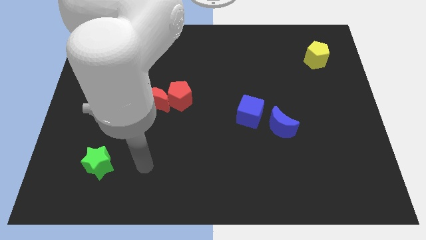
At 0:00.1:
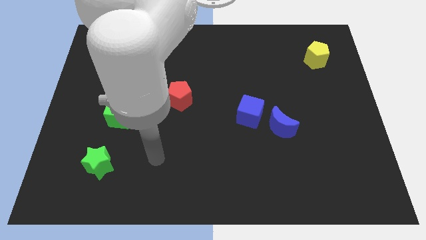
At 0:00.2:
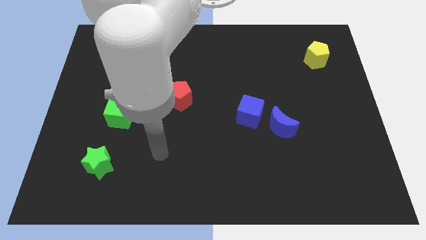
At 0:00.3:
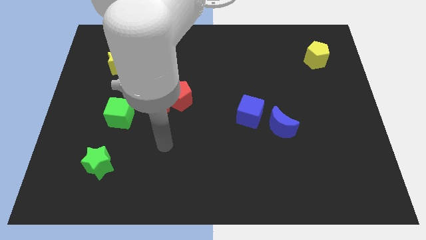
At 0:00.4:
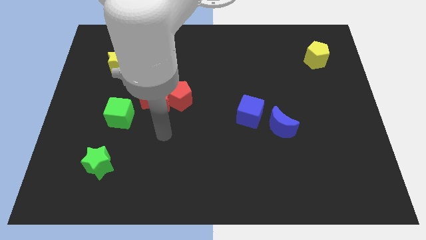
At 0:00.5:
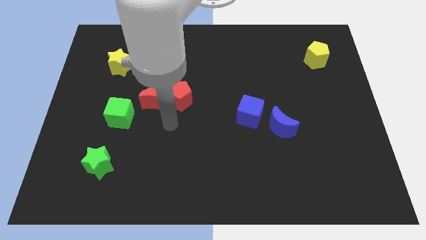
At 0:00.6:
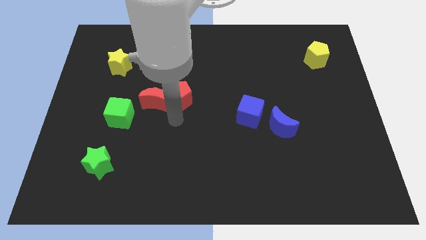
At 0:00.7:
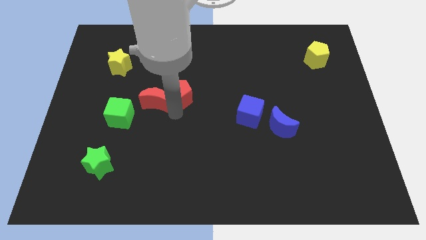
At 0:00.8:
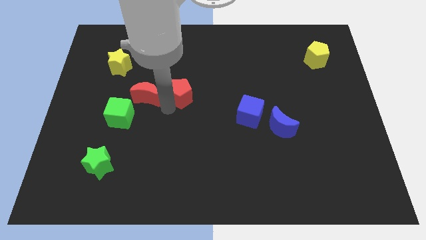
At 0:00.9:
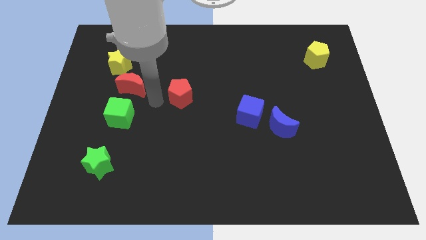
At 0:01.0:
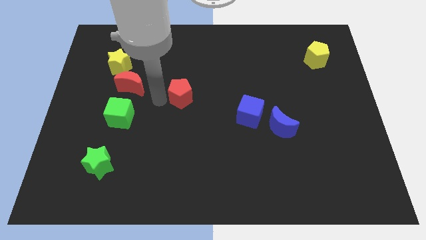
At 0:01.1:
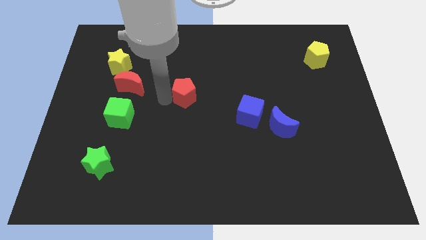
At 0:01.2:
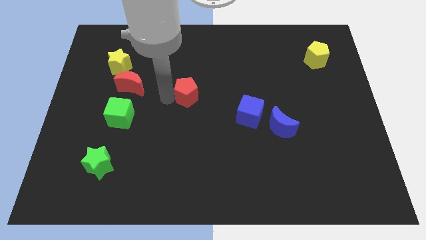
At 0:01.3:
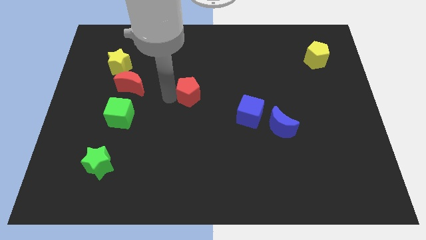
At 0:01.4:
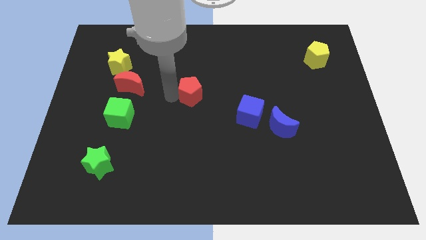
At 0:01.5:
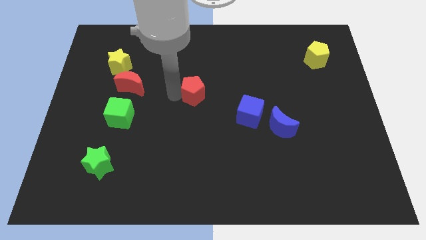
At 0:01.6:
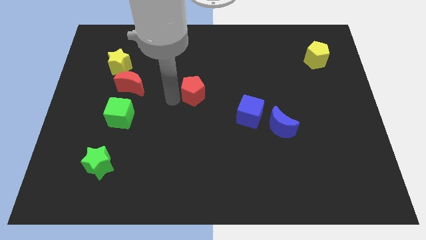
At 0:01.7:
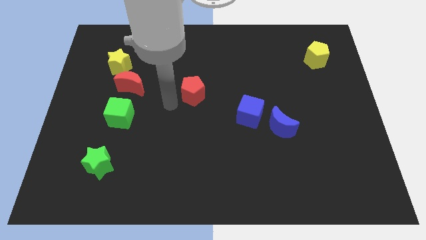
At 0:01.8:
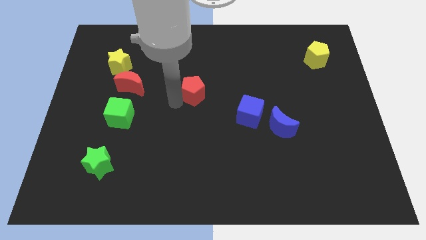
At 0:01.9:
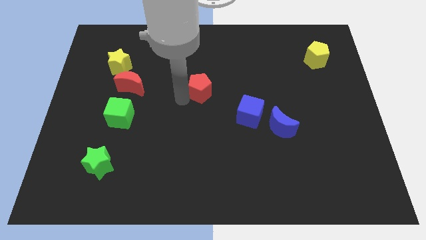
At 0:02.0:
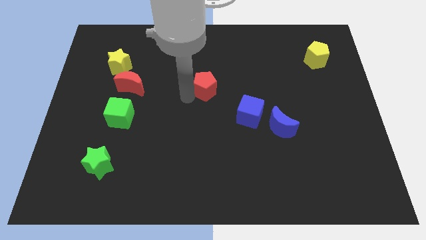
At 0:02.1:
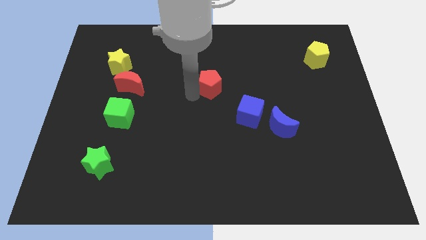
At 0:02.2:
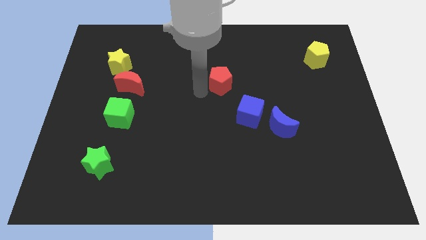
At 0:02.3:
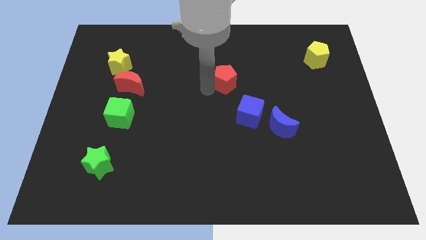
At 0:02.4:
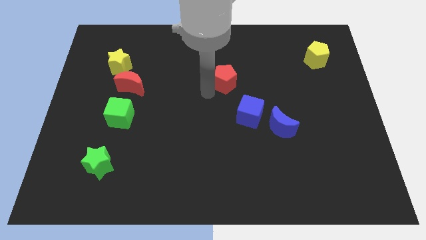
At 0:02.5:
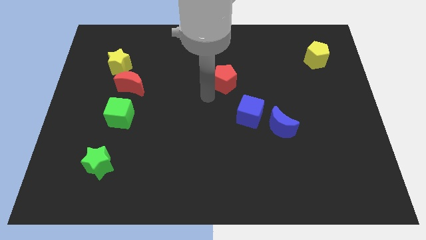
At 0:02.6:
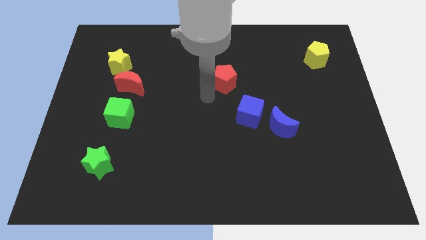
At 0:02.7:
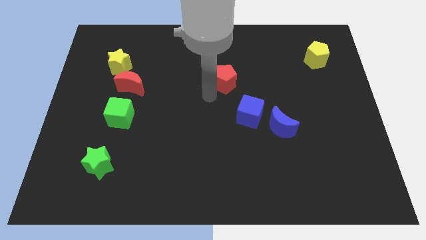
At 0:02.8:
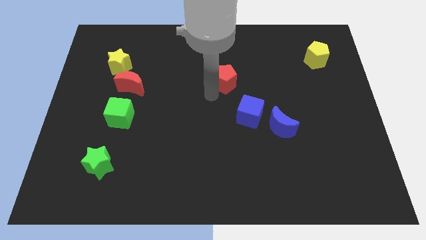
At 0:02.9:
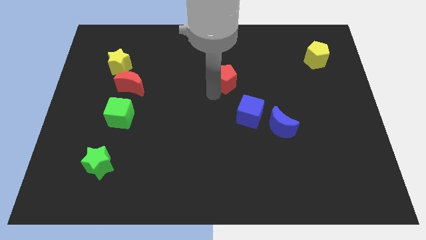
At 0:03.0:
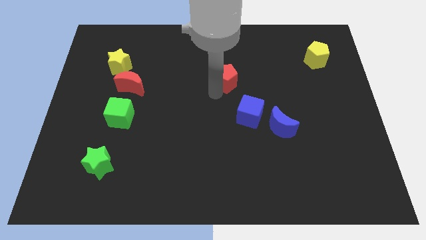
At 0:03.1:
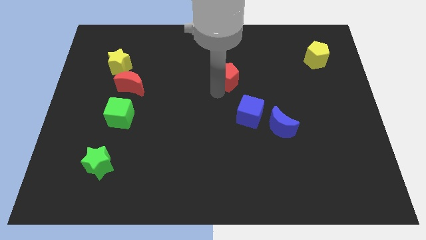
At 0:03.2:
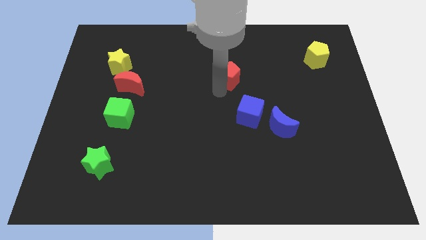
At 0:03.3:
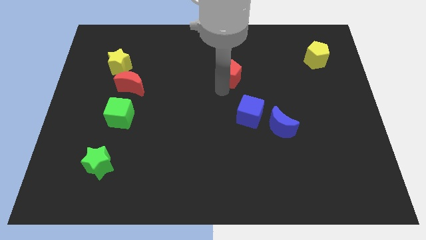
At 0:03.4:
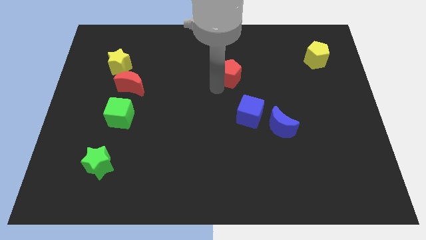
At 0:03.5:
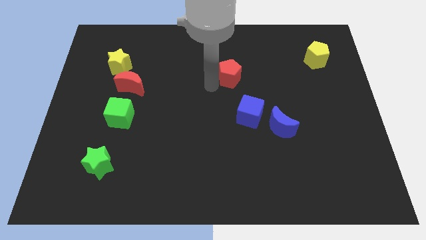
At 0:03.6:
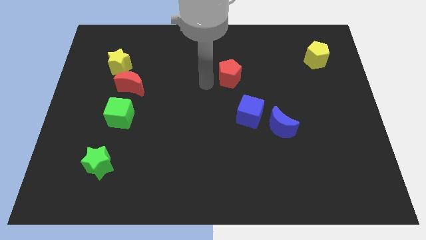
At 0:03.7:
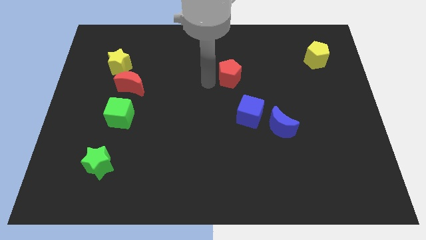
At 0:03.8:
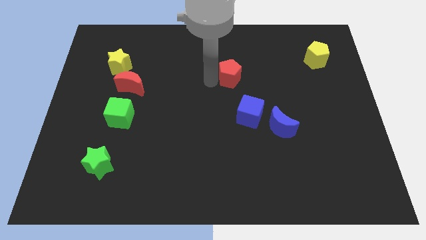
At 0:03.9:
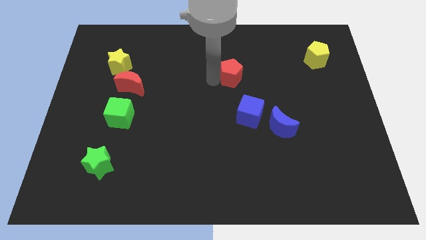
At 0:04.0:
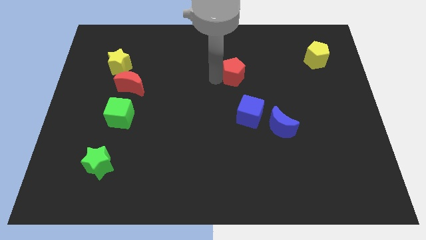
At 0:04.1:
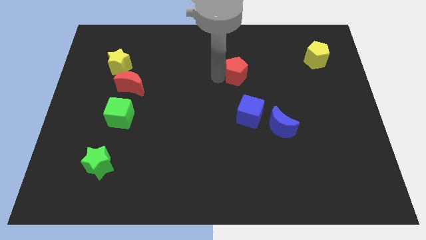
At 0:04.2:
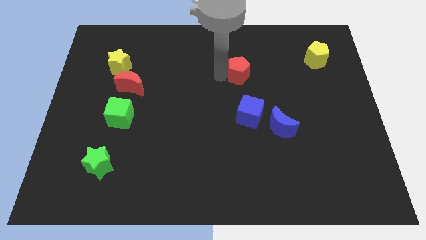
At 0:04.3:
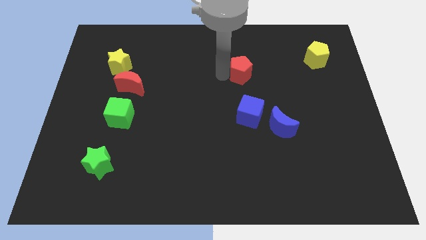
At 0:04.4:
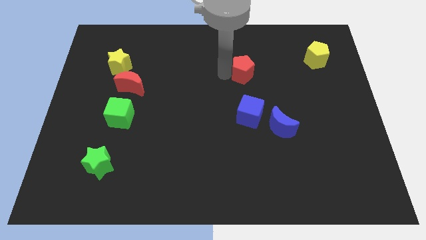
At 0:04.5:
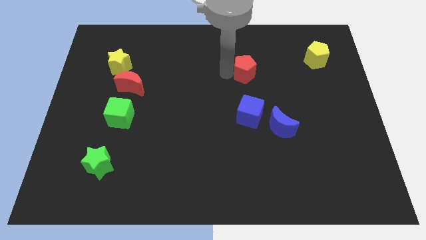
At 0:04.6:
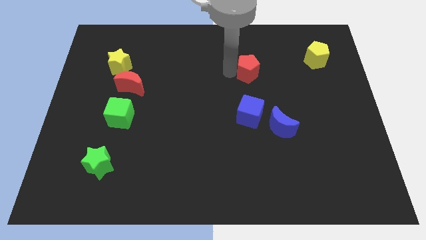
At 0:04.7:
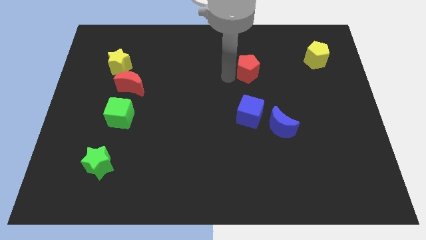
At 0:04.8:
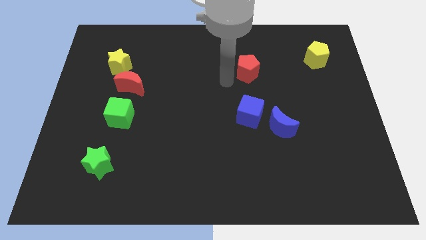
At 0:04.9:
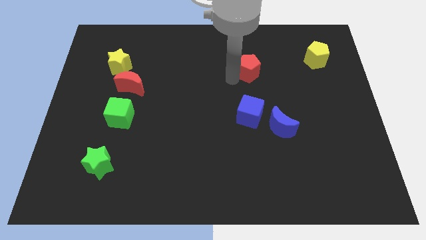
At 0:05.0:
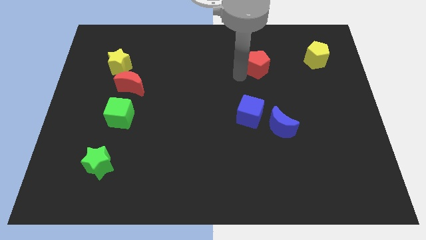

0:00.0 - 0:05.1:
push the red pentagon left of the yellow pentagon

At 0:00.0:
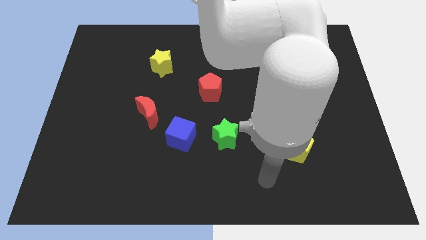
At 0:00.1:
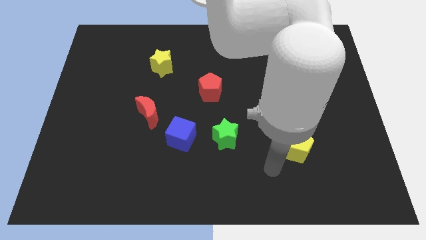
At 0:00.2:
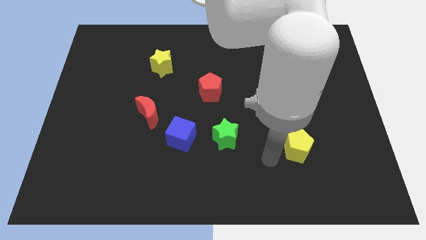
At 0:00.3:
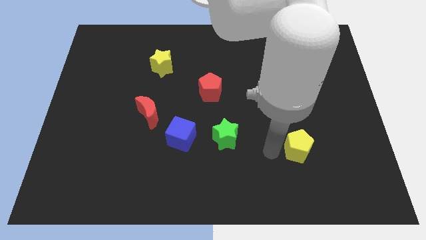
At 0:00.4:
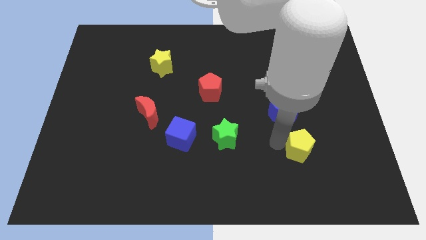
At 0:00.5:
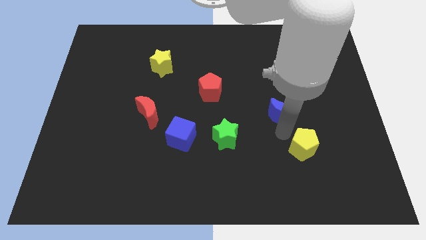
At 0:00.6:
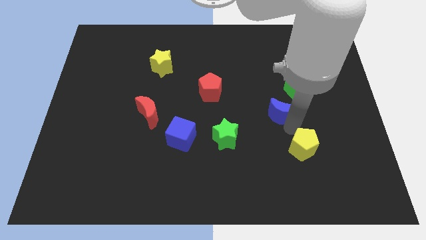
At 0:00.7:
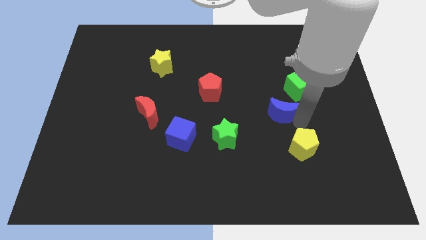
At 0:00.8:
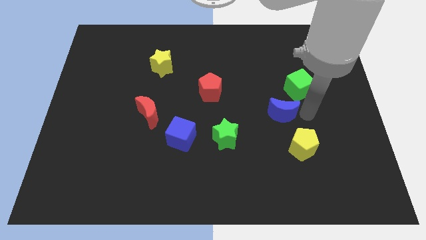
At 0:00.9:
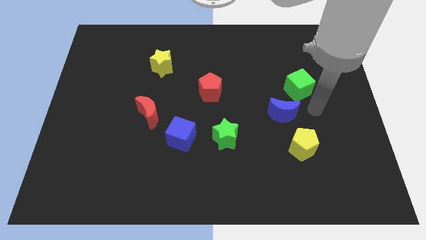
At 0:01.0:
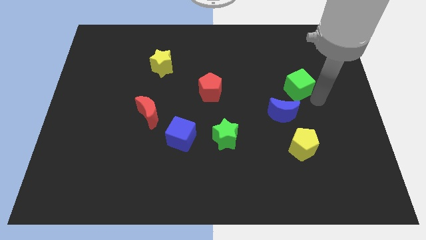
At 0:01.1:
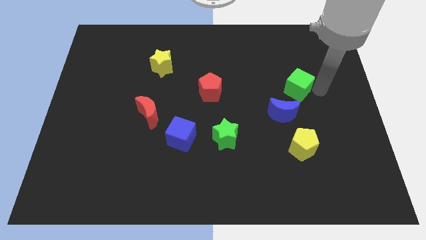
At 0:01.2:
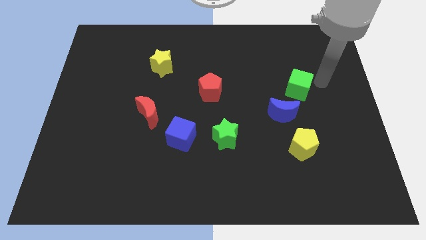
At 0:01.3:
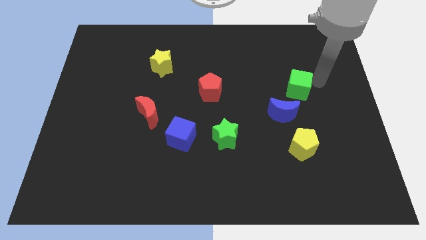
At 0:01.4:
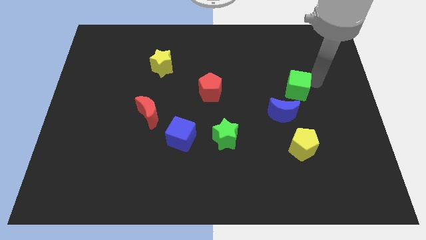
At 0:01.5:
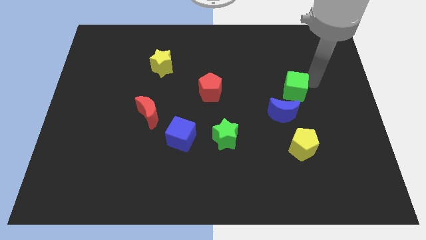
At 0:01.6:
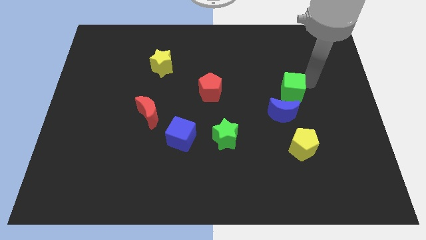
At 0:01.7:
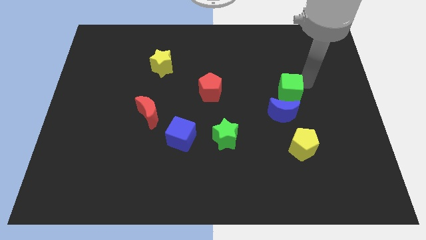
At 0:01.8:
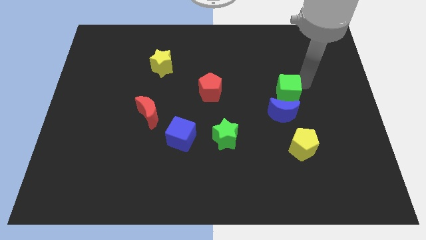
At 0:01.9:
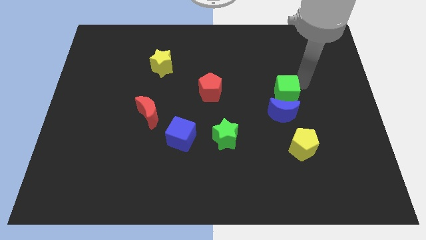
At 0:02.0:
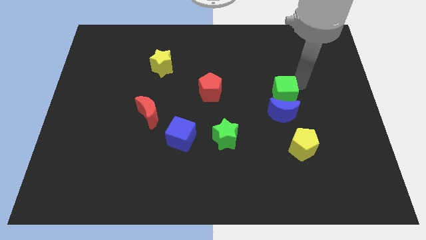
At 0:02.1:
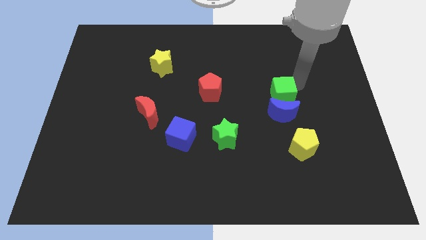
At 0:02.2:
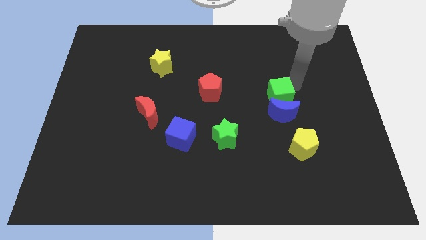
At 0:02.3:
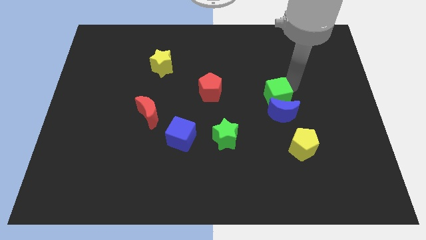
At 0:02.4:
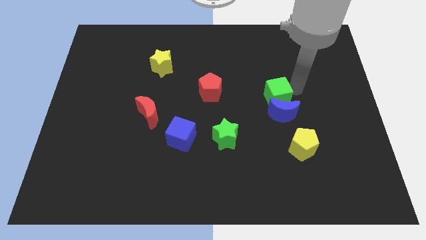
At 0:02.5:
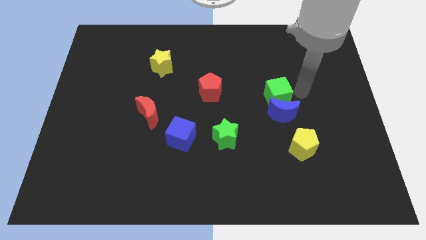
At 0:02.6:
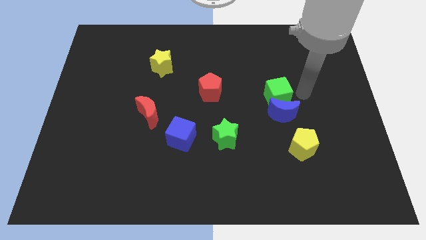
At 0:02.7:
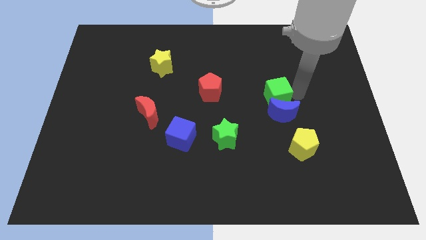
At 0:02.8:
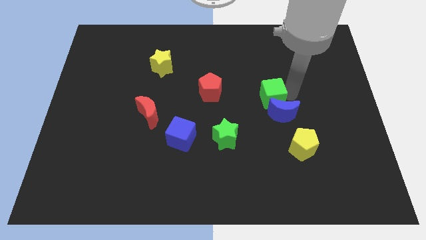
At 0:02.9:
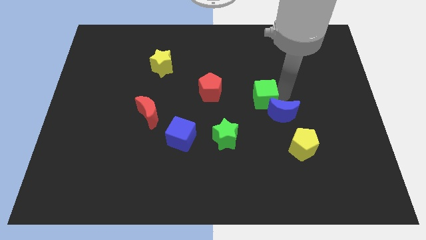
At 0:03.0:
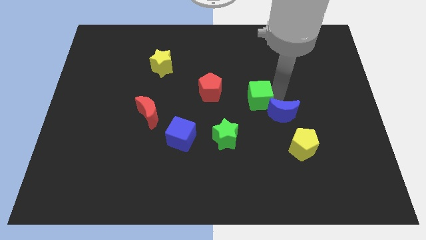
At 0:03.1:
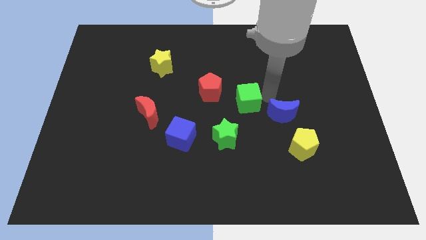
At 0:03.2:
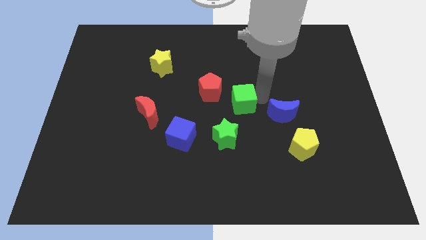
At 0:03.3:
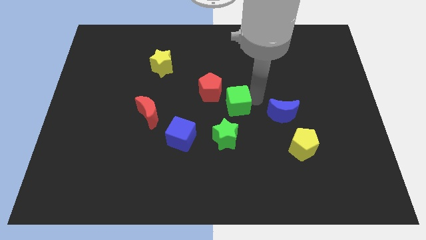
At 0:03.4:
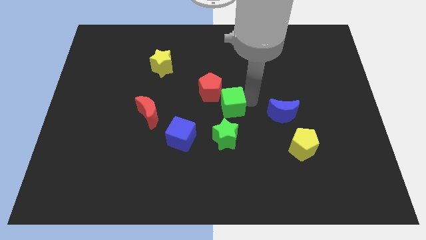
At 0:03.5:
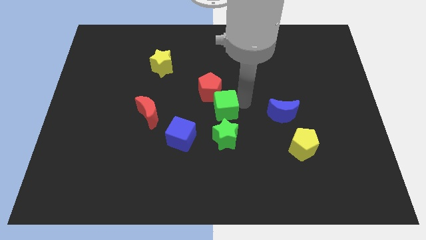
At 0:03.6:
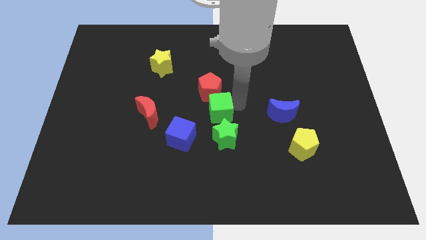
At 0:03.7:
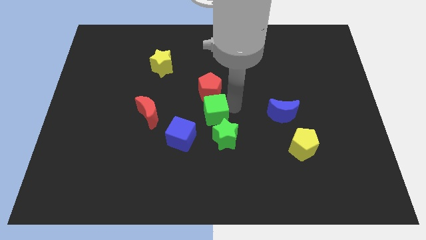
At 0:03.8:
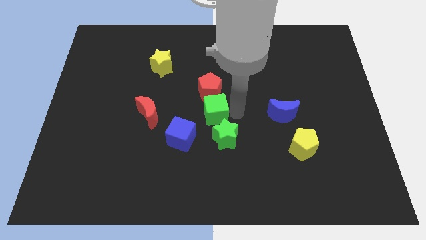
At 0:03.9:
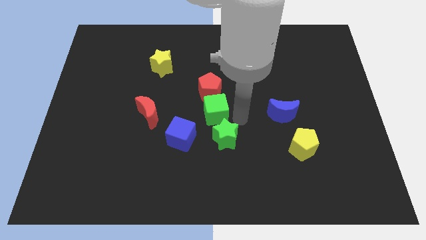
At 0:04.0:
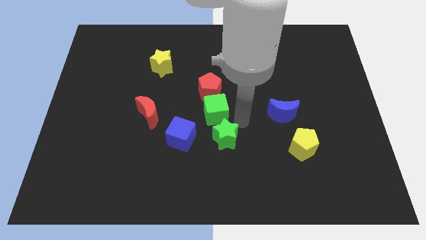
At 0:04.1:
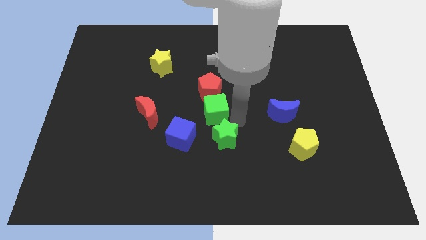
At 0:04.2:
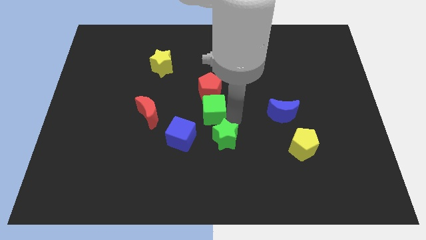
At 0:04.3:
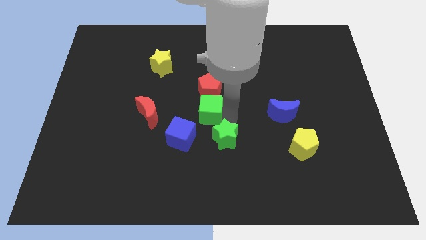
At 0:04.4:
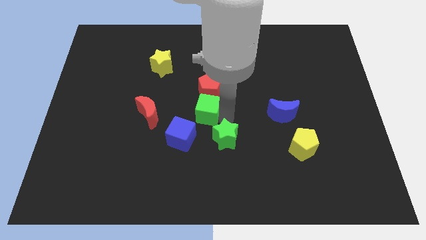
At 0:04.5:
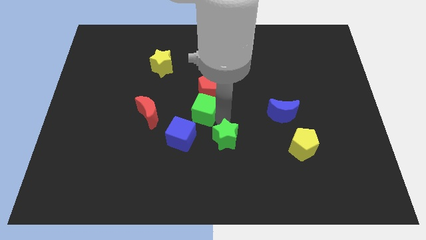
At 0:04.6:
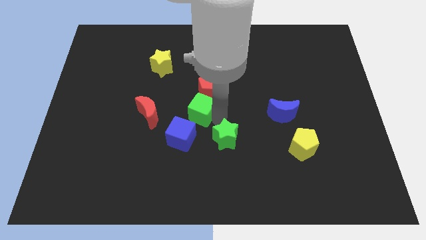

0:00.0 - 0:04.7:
push the green cube above the blue cube
